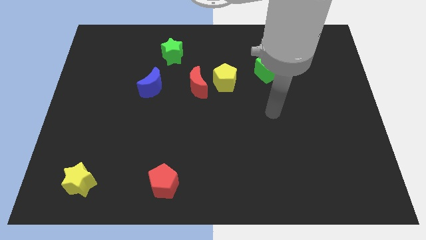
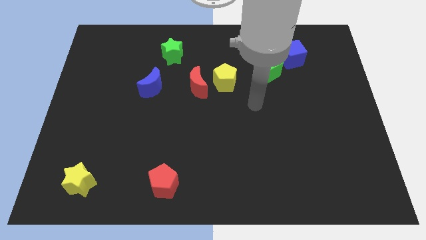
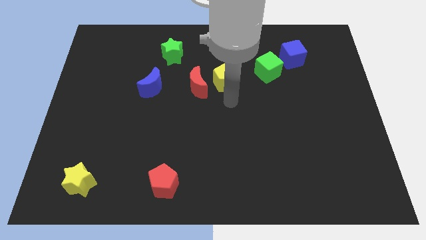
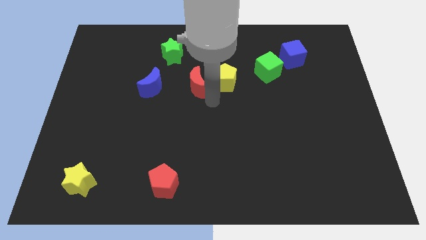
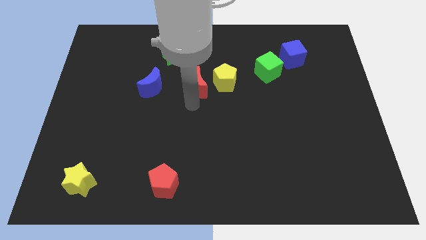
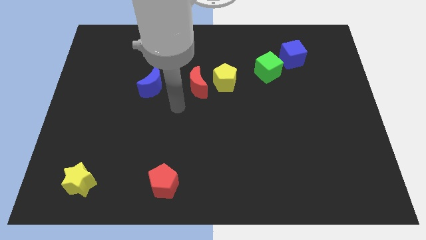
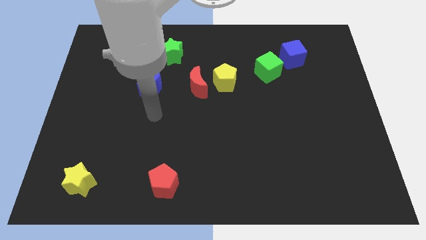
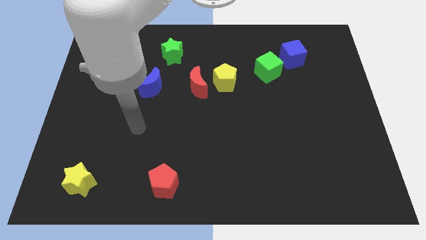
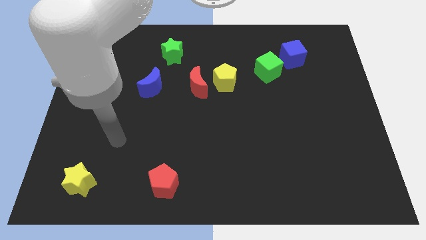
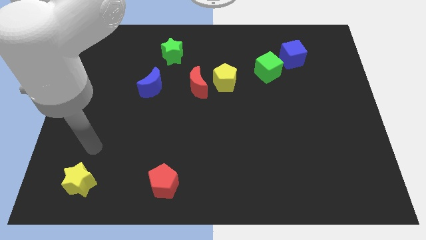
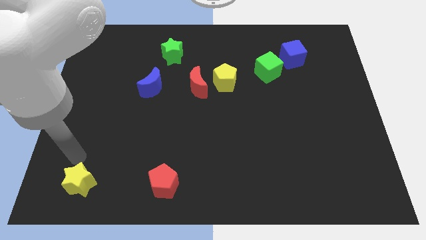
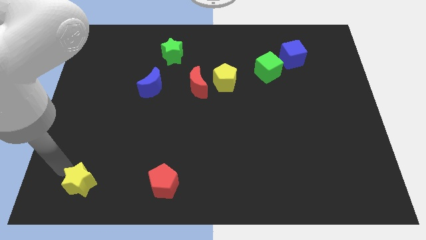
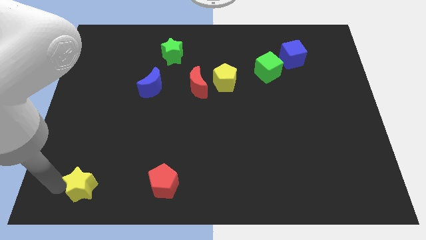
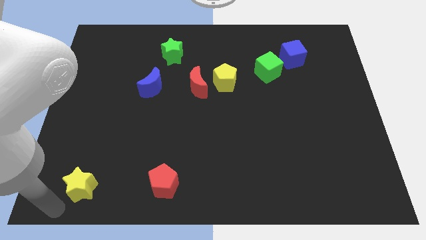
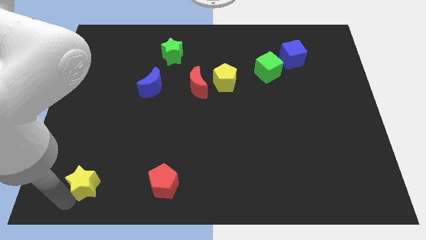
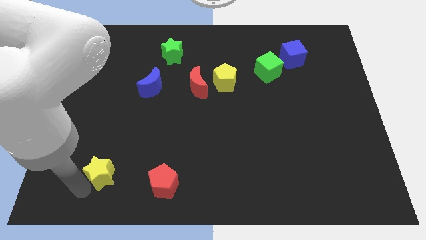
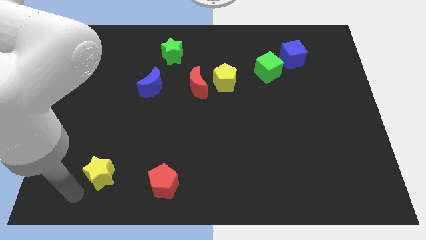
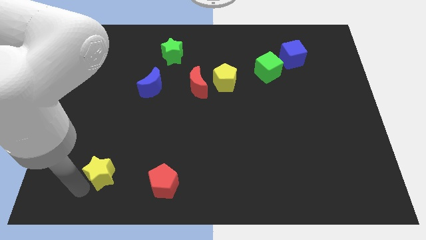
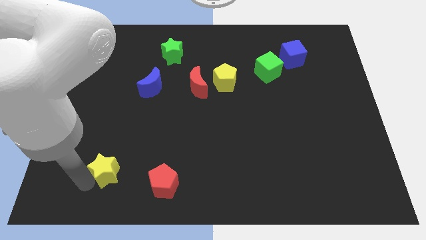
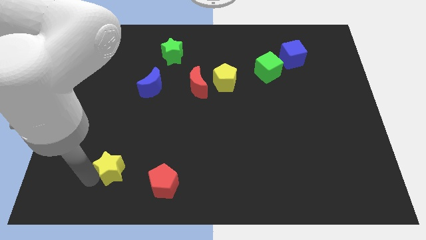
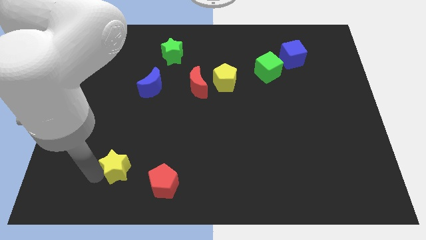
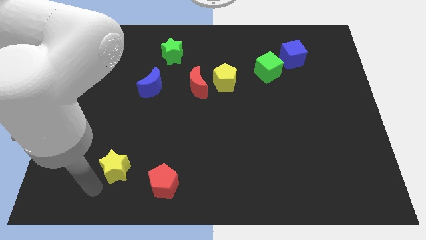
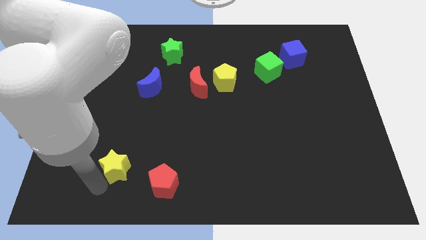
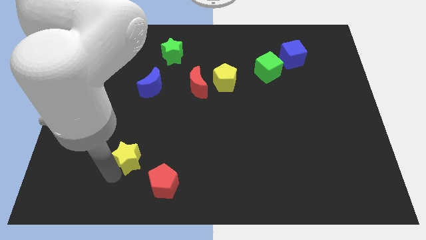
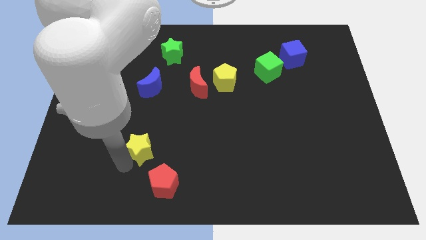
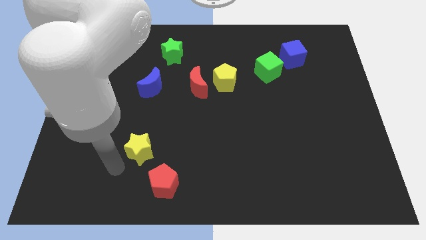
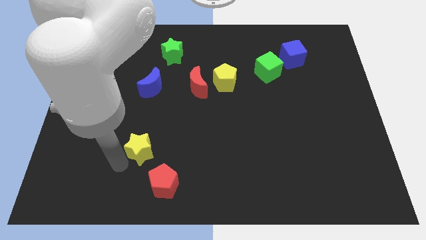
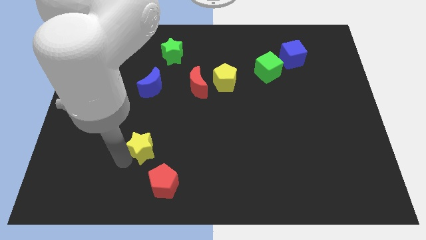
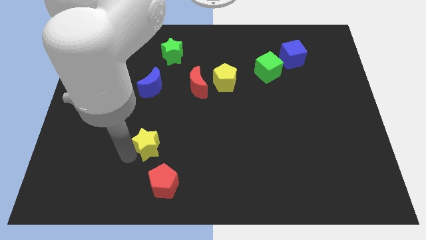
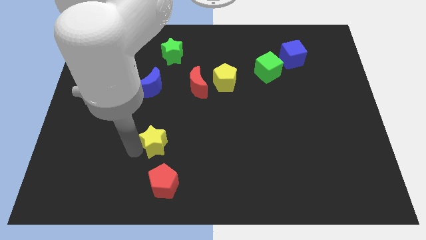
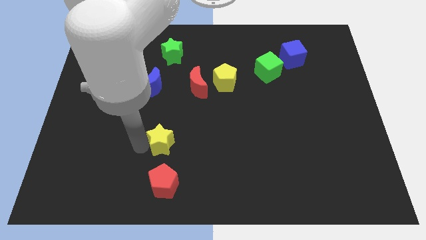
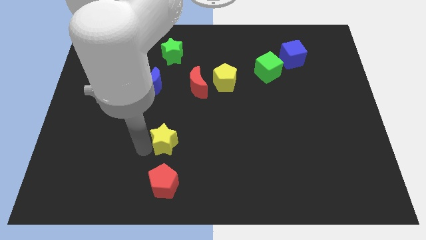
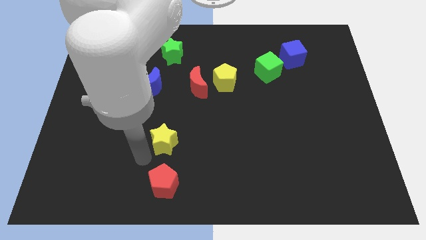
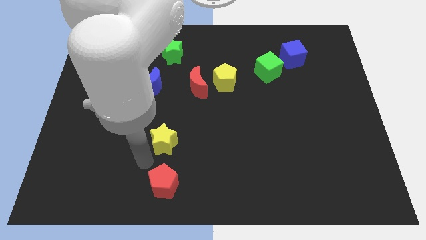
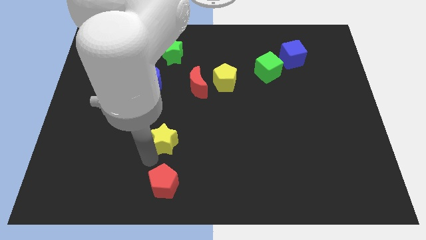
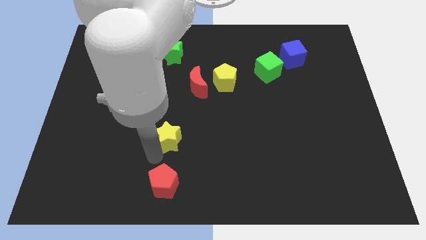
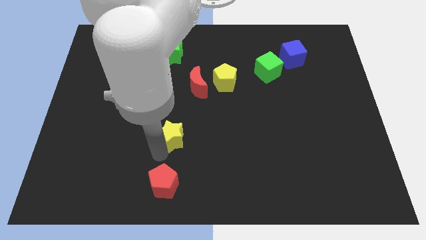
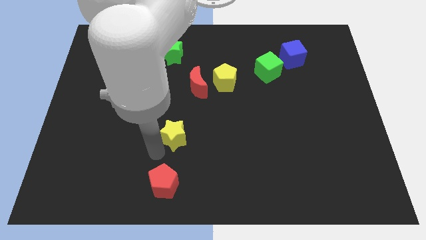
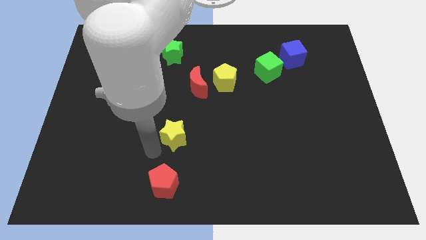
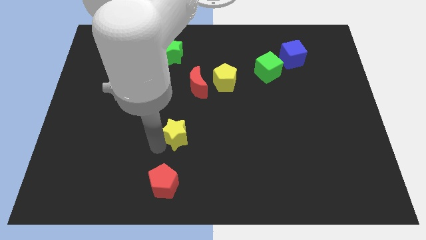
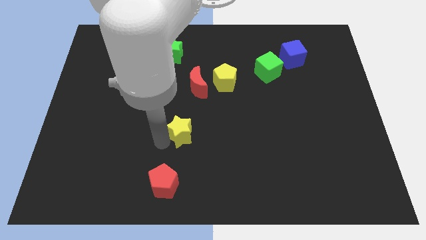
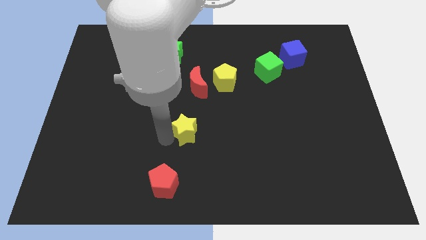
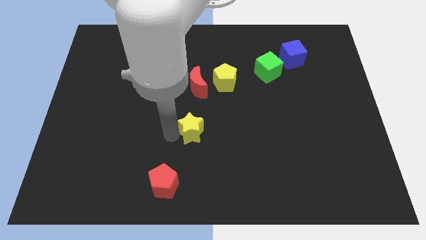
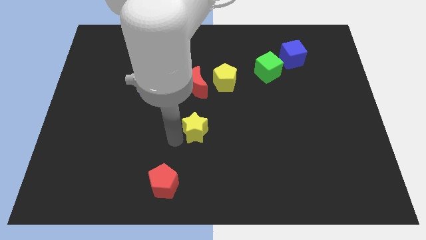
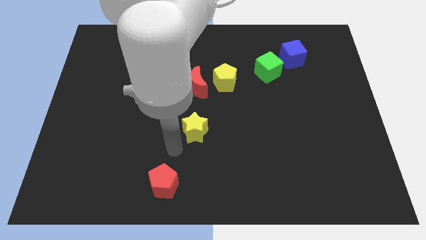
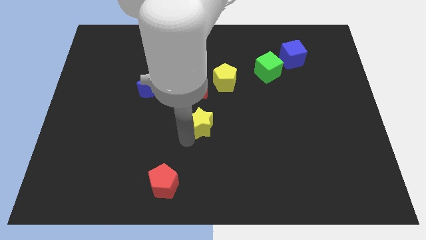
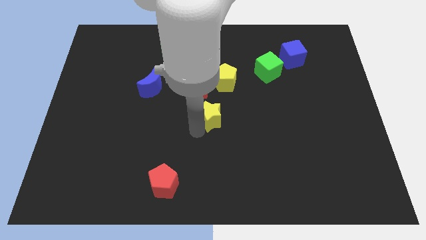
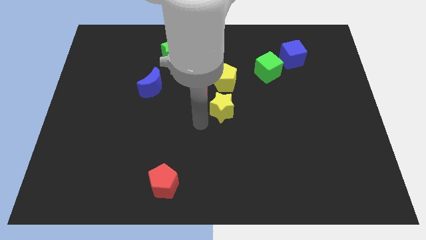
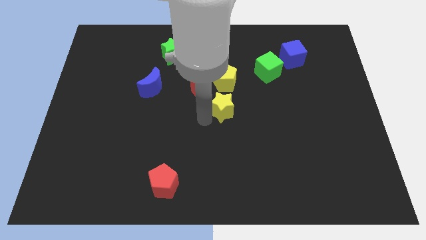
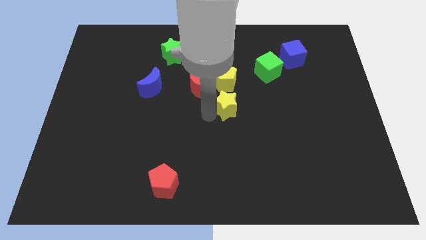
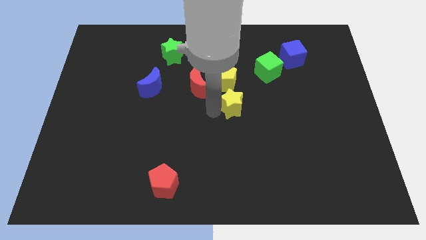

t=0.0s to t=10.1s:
move the yellow star to the bottom right side of the yellow pentagon
